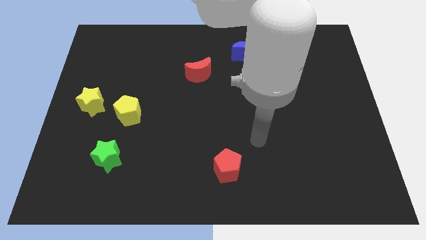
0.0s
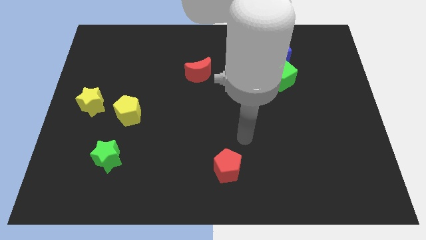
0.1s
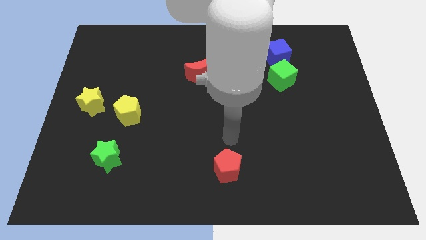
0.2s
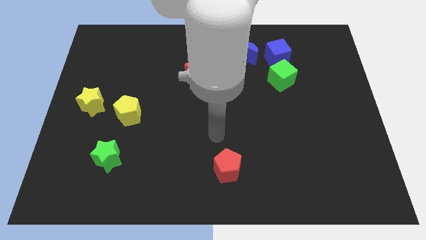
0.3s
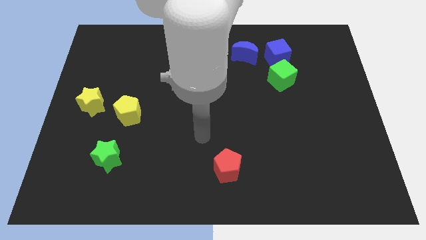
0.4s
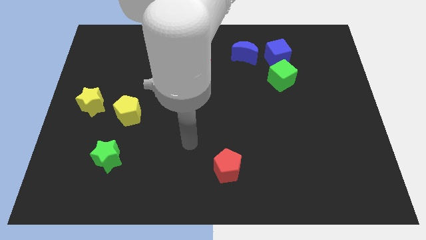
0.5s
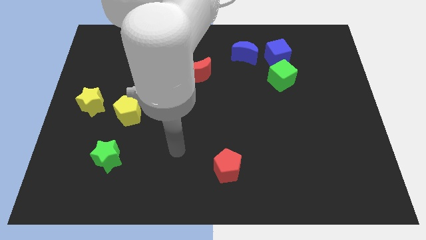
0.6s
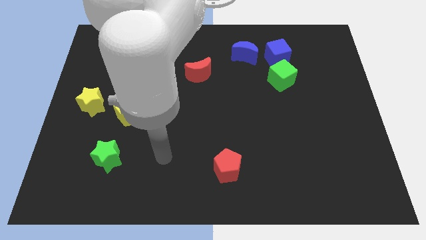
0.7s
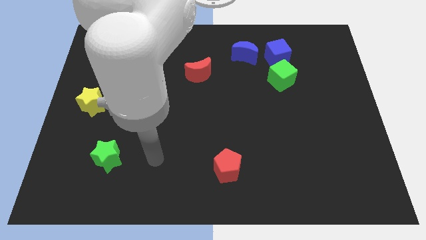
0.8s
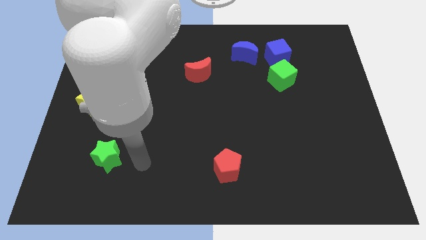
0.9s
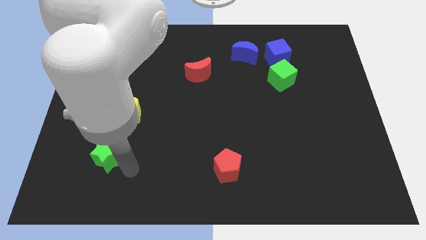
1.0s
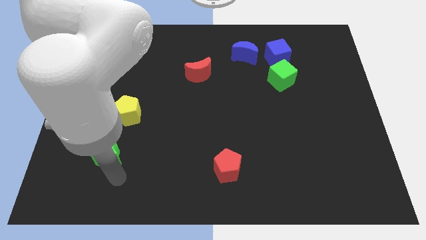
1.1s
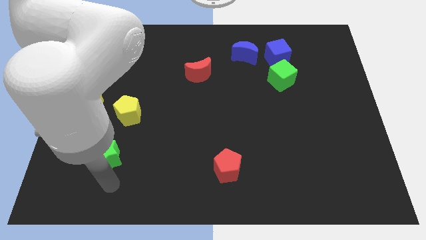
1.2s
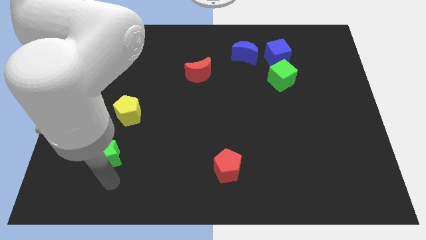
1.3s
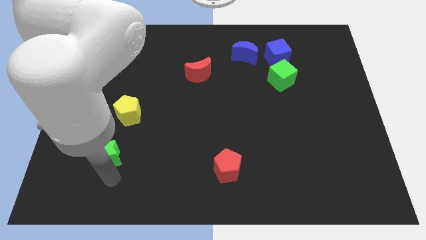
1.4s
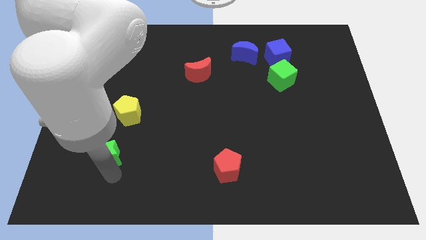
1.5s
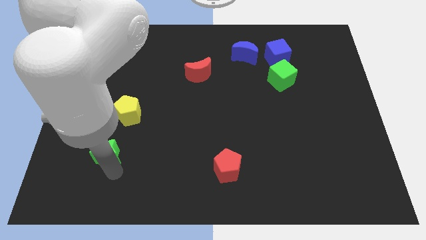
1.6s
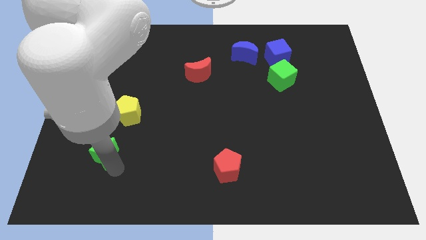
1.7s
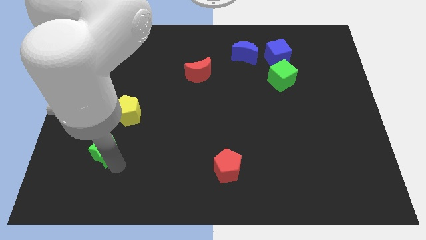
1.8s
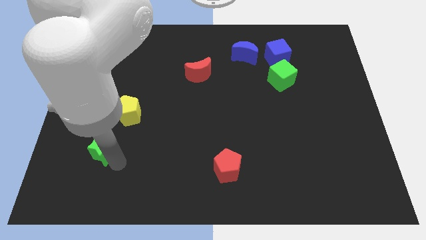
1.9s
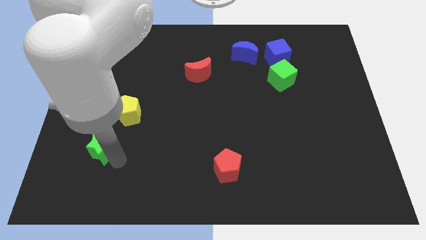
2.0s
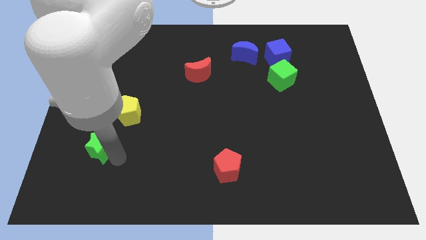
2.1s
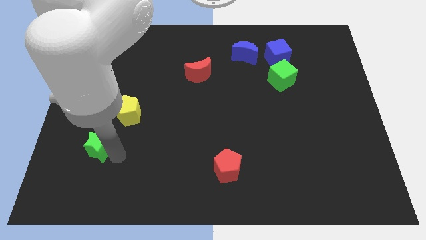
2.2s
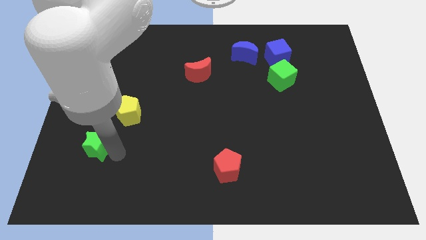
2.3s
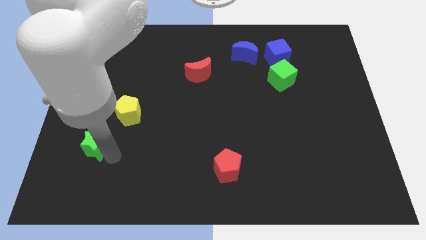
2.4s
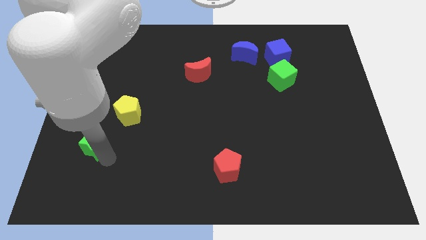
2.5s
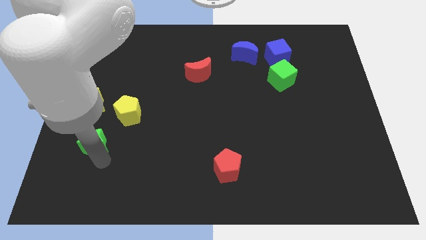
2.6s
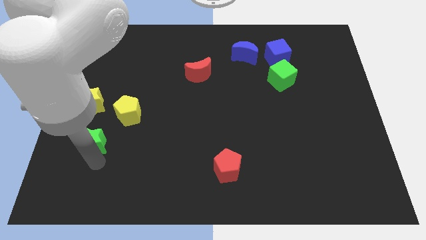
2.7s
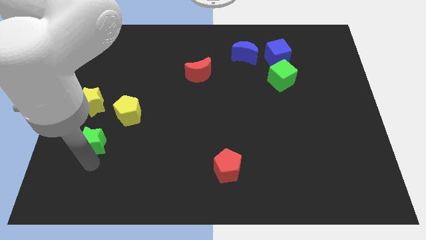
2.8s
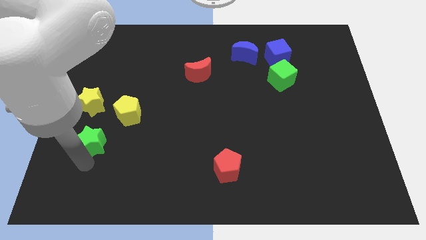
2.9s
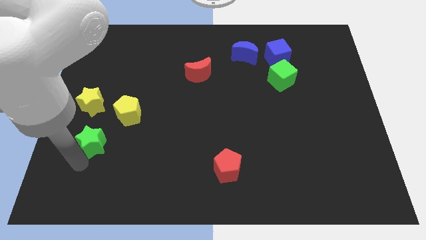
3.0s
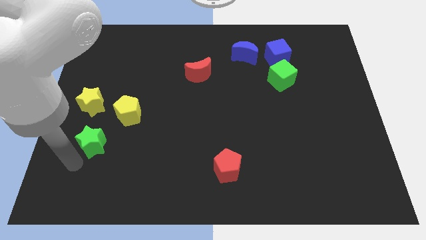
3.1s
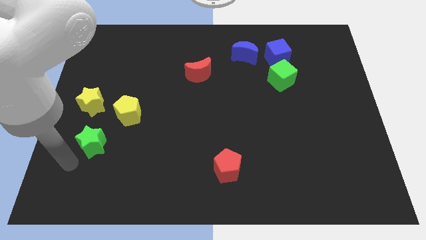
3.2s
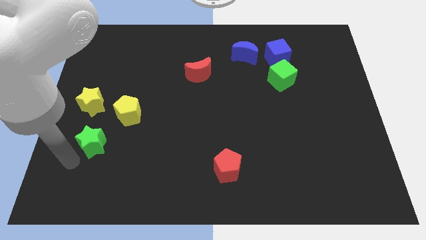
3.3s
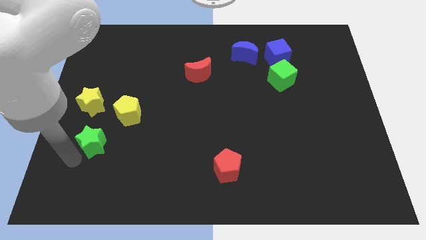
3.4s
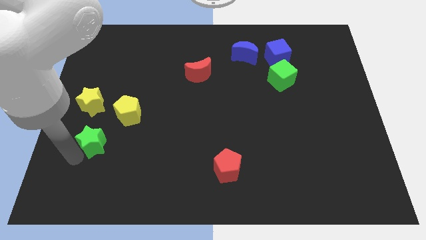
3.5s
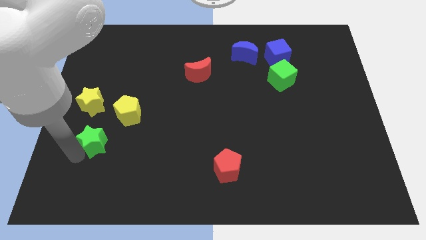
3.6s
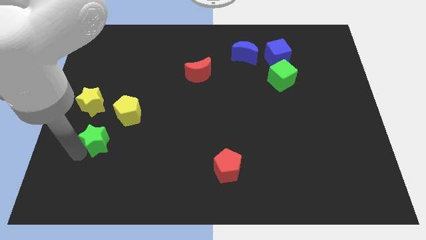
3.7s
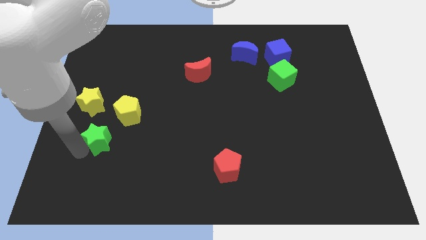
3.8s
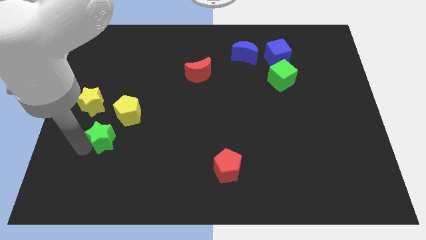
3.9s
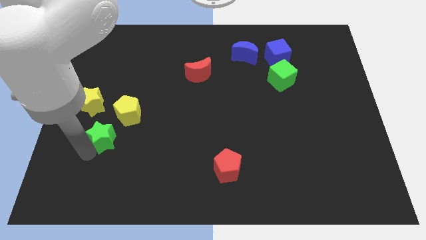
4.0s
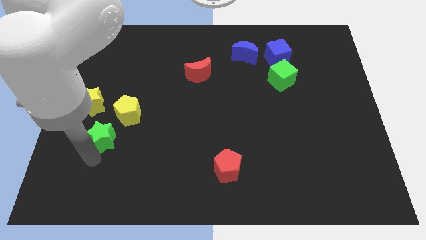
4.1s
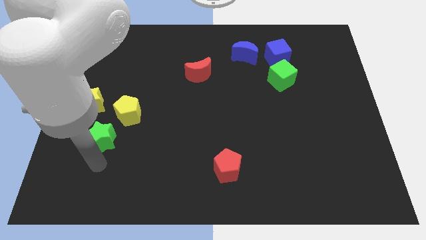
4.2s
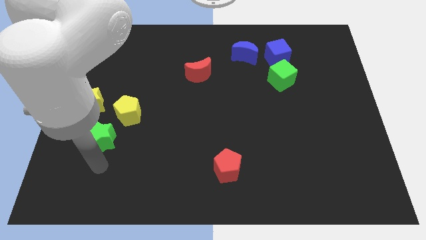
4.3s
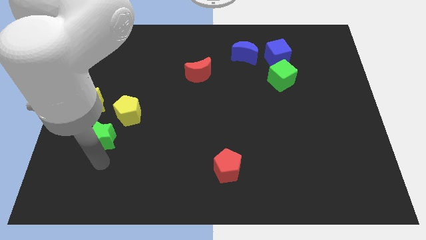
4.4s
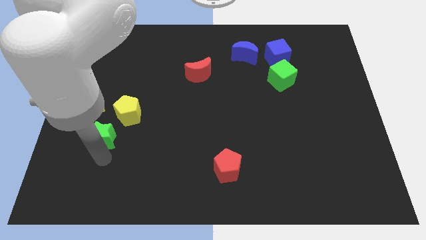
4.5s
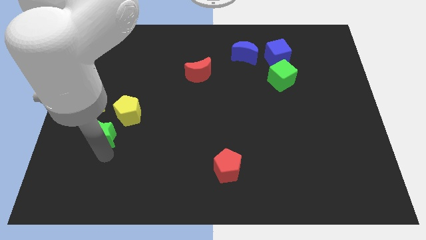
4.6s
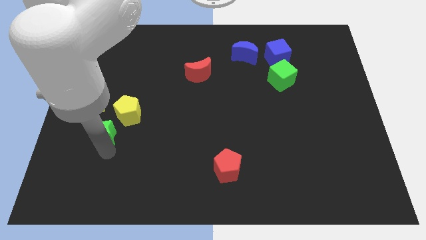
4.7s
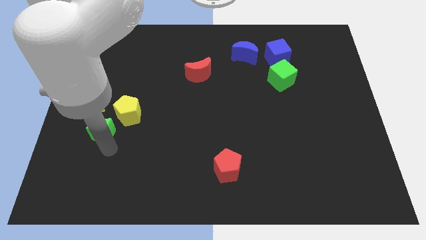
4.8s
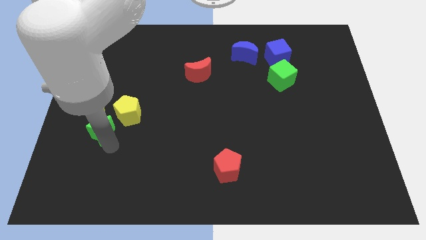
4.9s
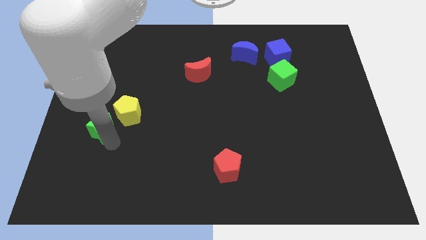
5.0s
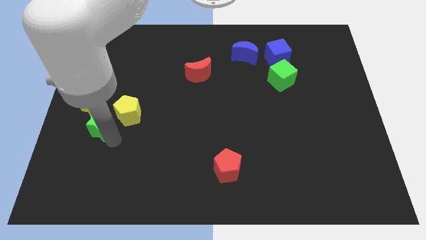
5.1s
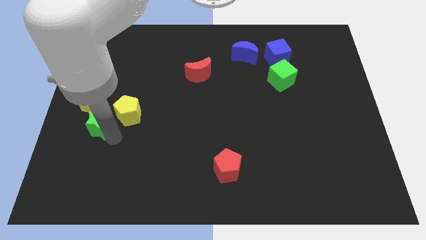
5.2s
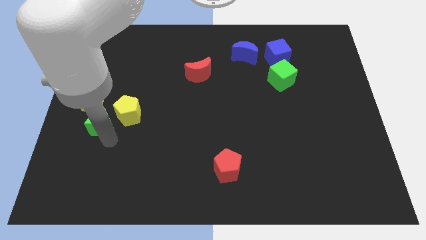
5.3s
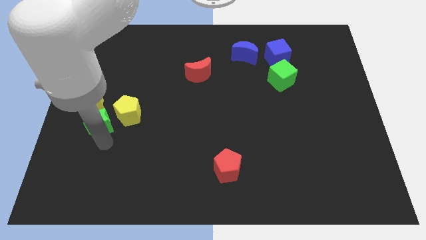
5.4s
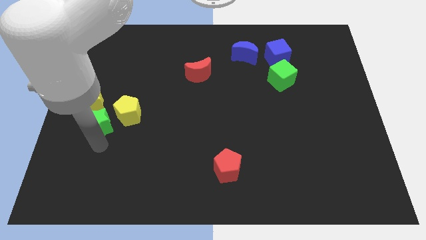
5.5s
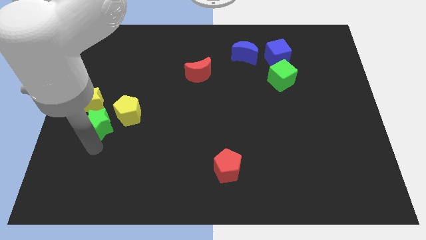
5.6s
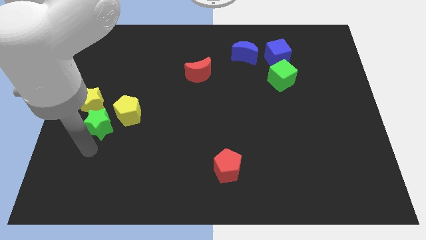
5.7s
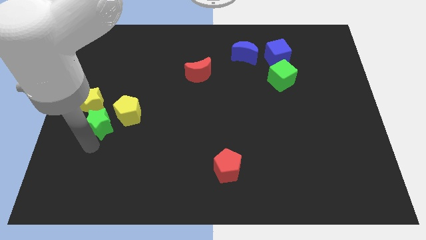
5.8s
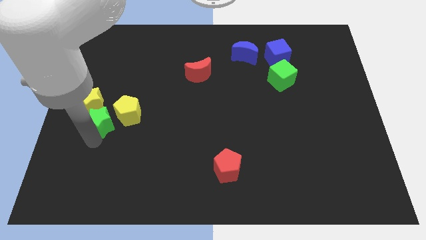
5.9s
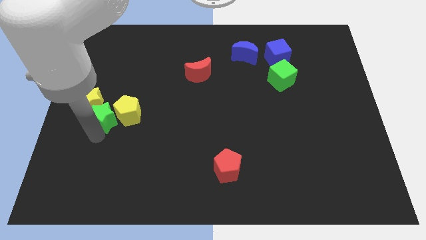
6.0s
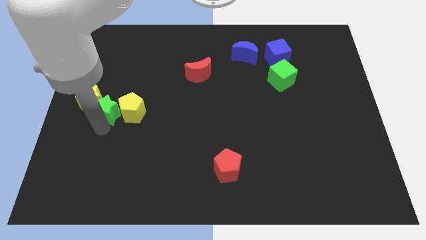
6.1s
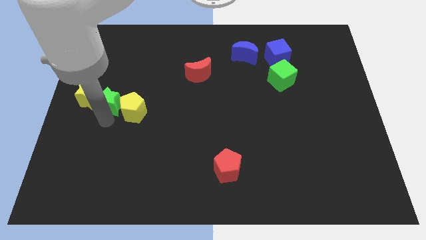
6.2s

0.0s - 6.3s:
move the green star to the top right of the yellow star

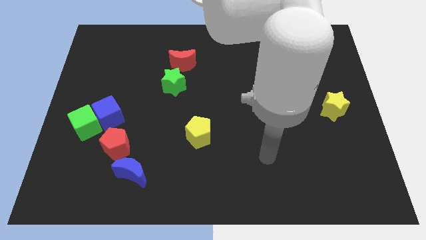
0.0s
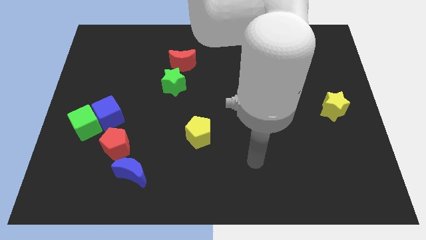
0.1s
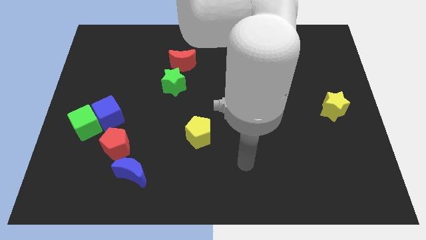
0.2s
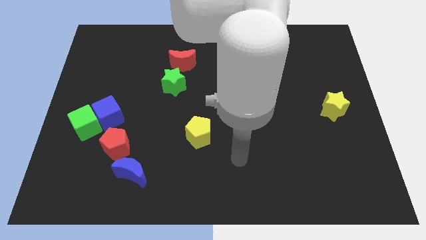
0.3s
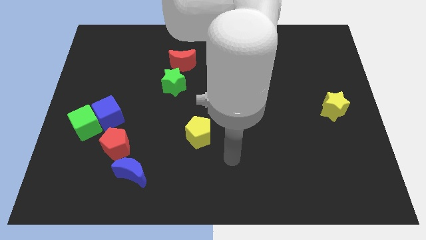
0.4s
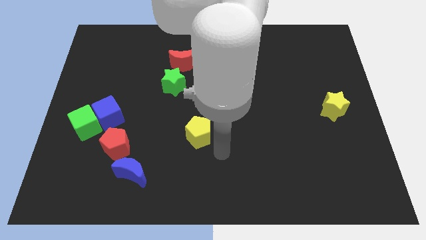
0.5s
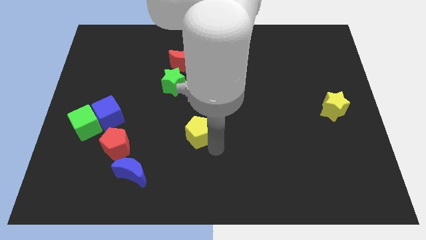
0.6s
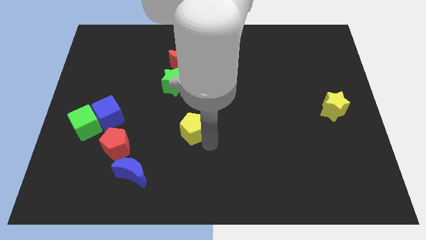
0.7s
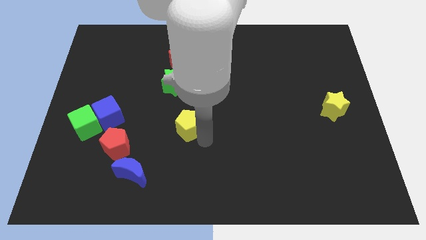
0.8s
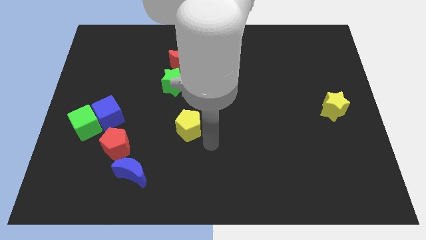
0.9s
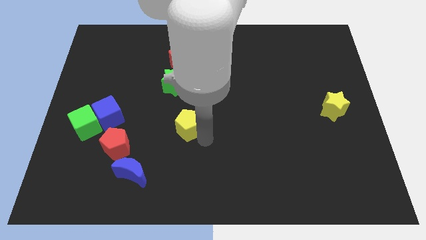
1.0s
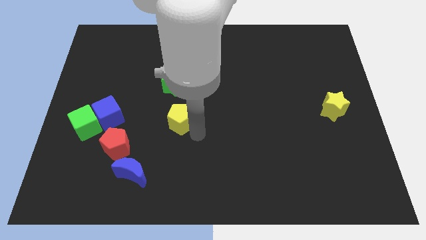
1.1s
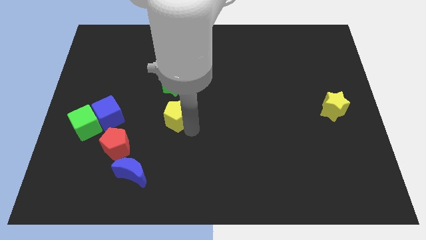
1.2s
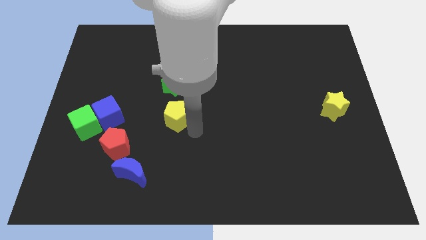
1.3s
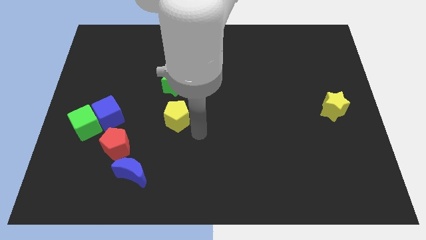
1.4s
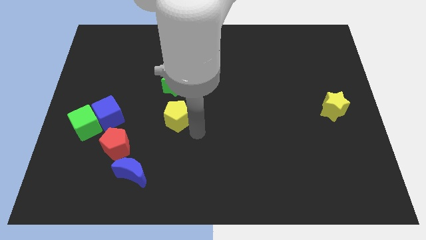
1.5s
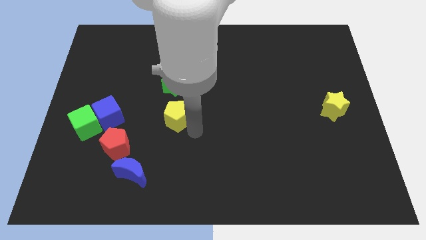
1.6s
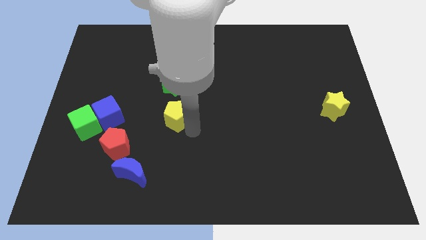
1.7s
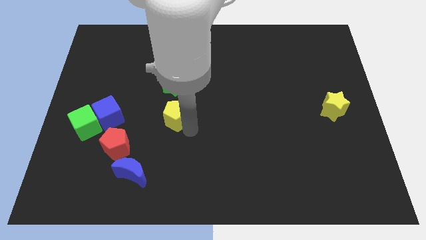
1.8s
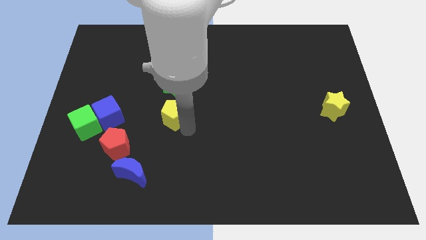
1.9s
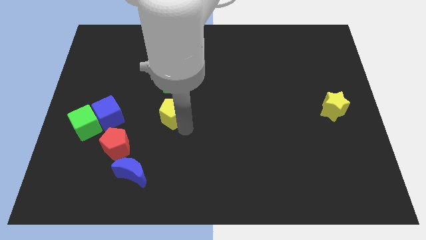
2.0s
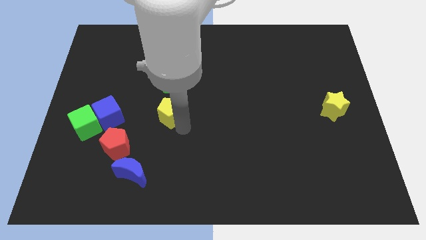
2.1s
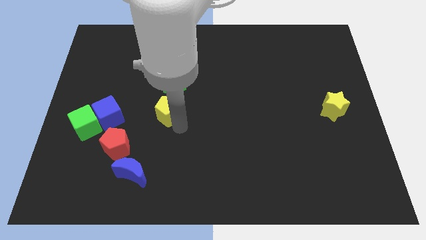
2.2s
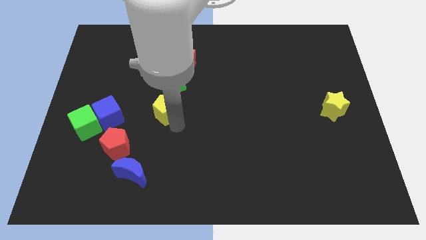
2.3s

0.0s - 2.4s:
put the yellow pentagon diagonally down and to the left of the green star
